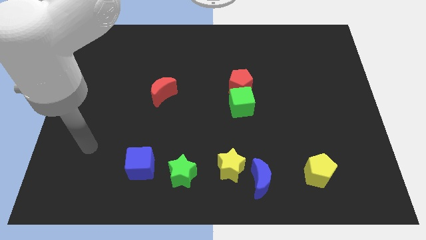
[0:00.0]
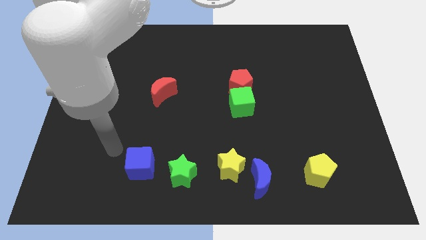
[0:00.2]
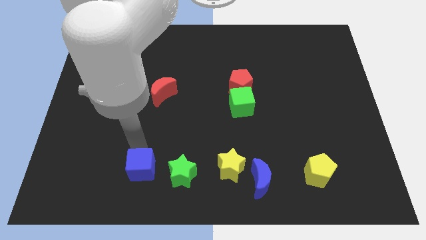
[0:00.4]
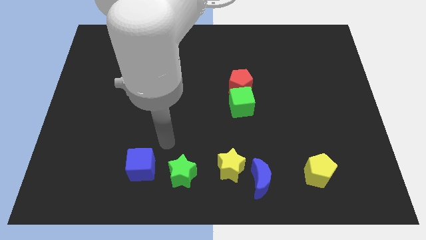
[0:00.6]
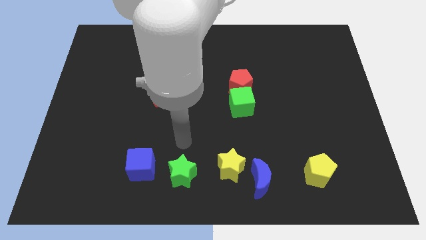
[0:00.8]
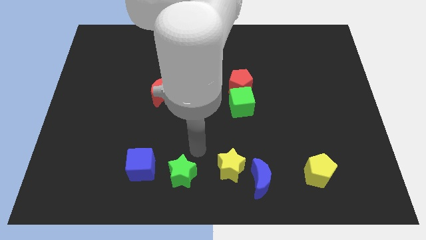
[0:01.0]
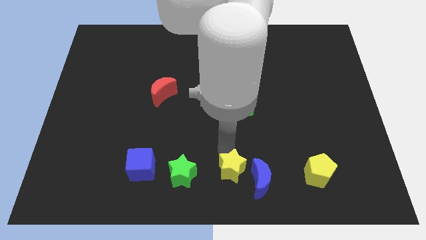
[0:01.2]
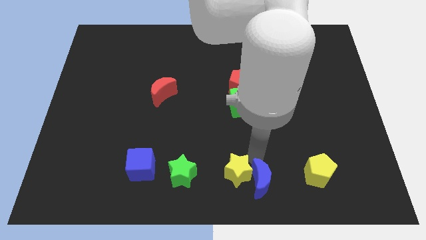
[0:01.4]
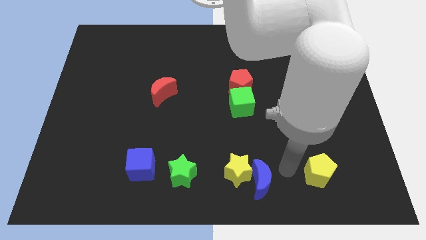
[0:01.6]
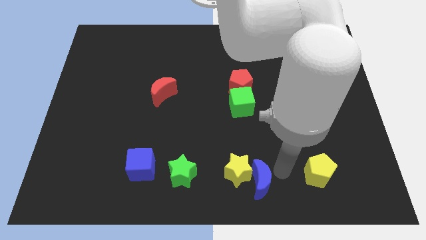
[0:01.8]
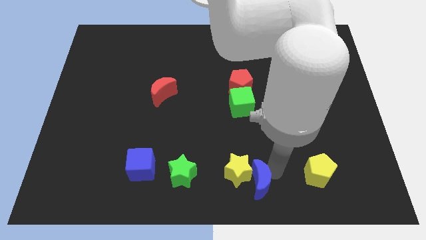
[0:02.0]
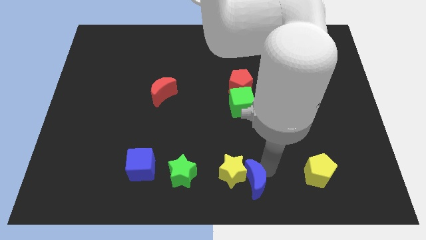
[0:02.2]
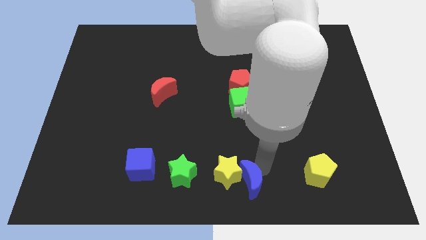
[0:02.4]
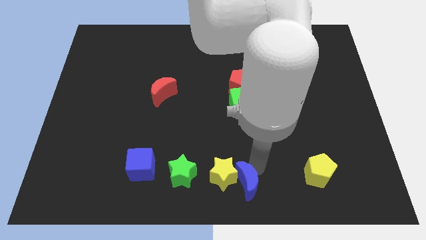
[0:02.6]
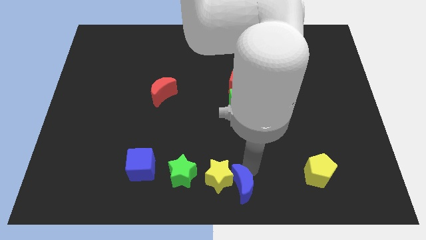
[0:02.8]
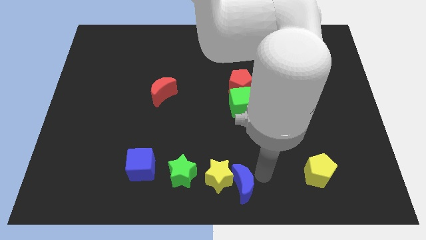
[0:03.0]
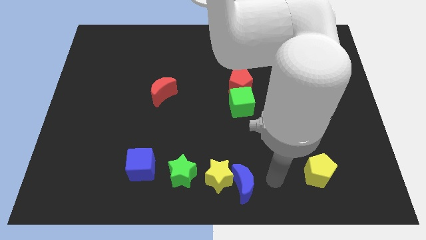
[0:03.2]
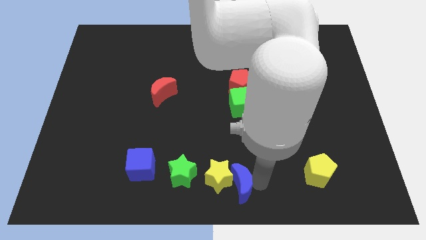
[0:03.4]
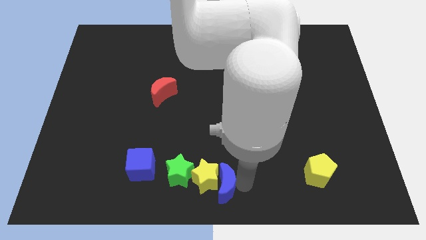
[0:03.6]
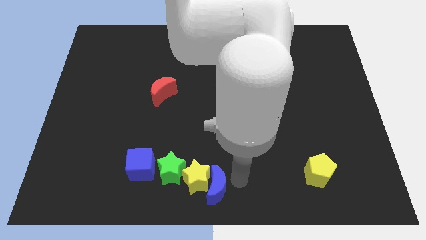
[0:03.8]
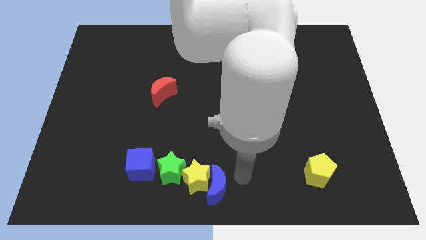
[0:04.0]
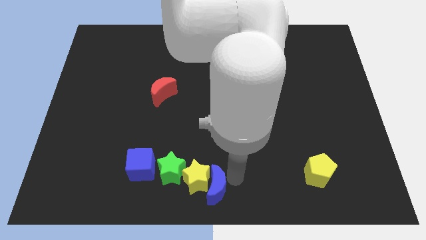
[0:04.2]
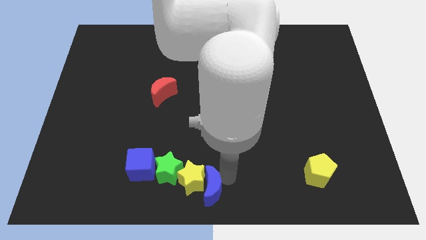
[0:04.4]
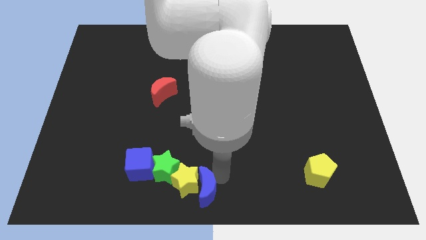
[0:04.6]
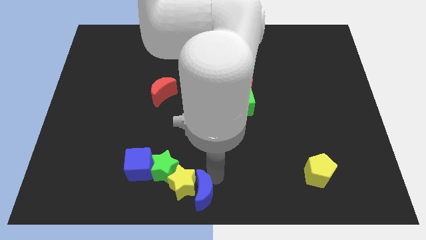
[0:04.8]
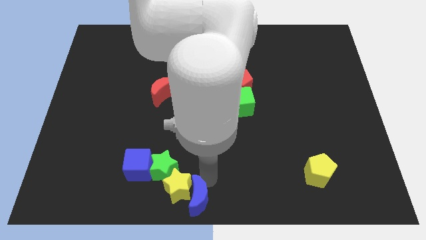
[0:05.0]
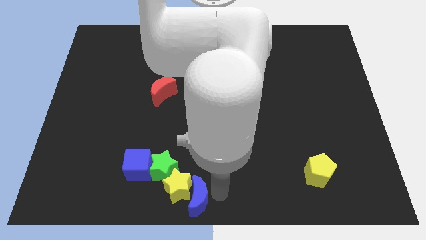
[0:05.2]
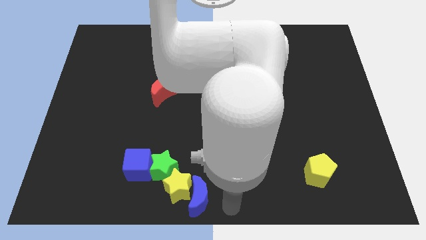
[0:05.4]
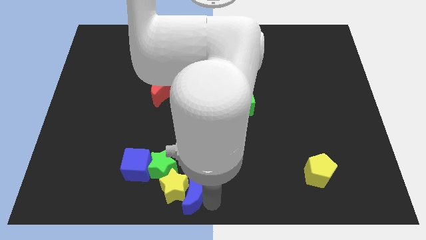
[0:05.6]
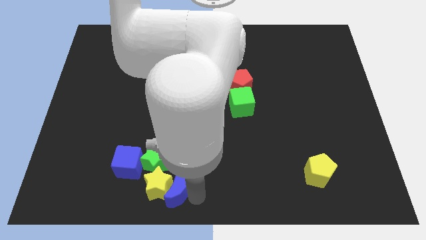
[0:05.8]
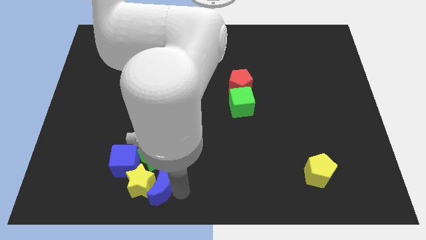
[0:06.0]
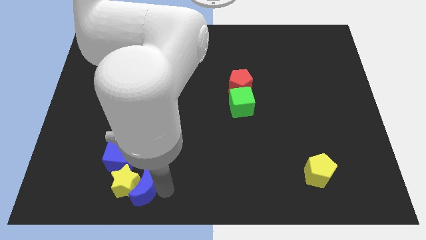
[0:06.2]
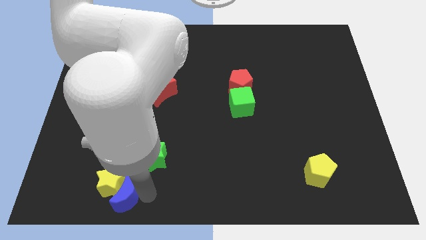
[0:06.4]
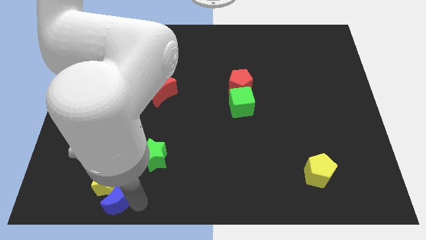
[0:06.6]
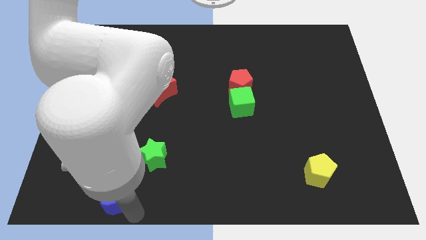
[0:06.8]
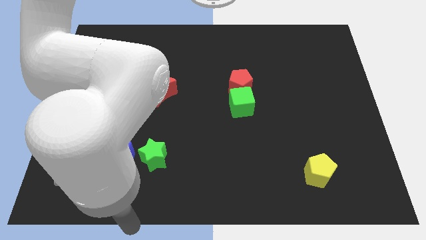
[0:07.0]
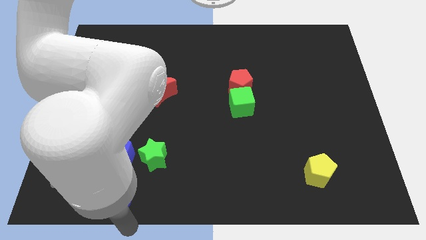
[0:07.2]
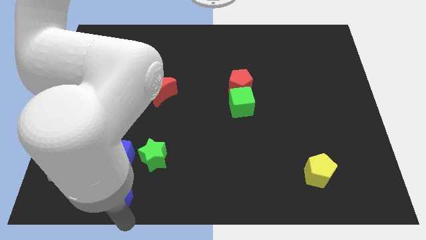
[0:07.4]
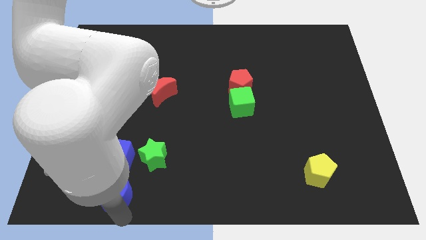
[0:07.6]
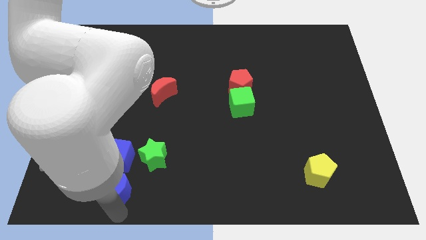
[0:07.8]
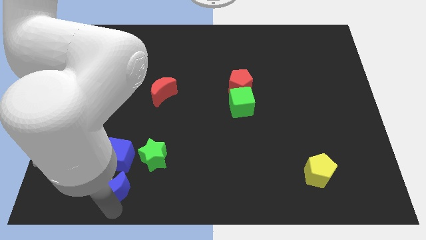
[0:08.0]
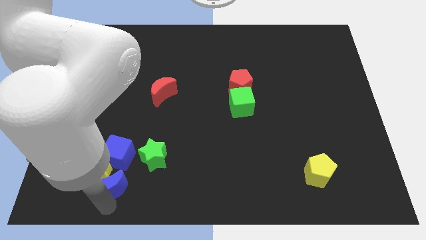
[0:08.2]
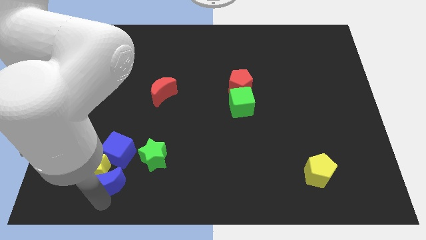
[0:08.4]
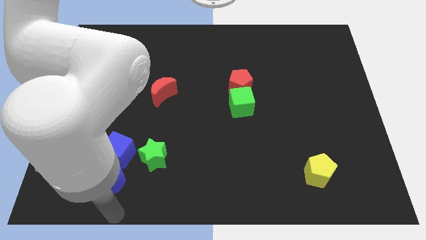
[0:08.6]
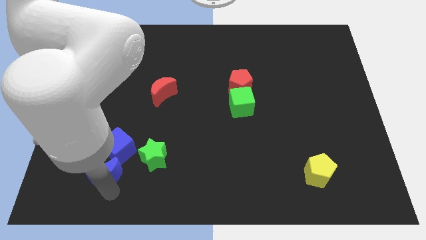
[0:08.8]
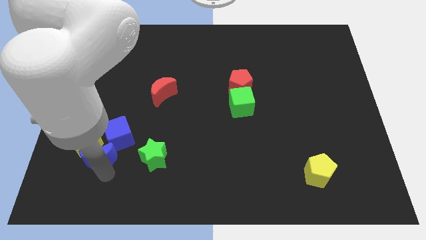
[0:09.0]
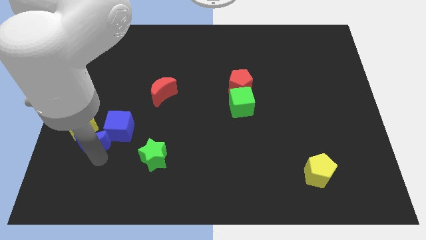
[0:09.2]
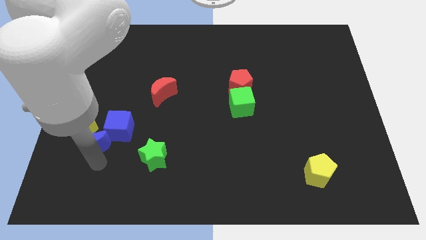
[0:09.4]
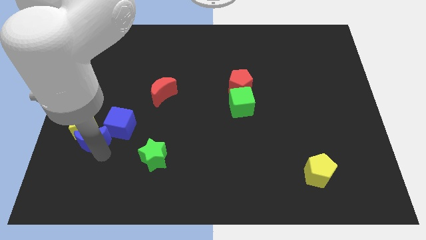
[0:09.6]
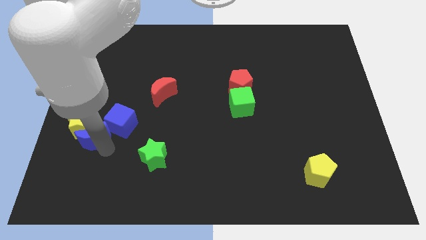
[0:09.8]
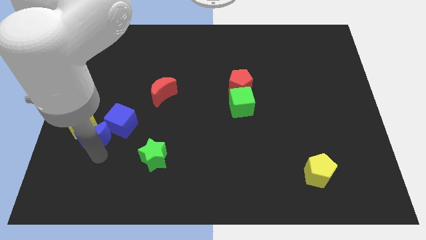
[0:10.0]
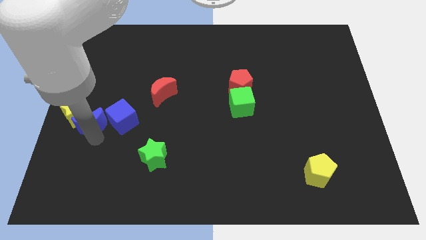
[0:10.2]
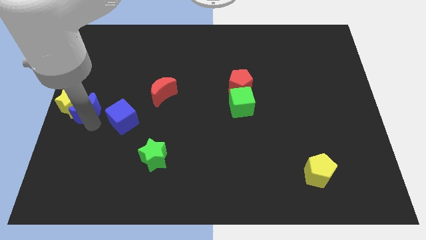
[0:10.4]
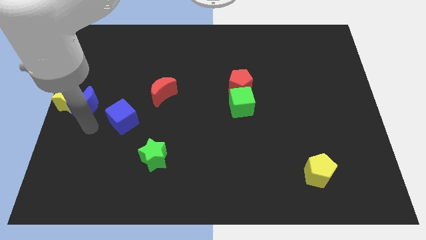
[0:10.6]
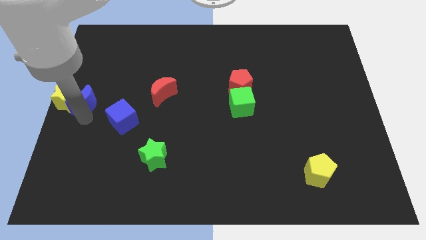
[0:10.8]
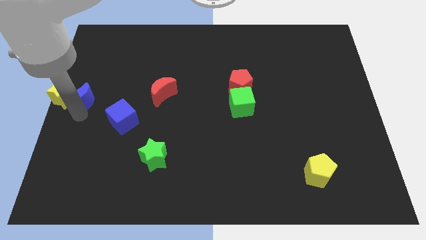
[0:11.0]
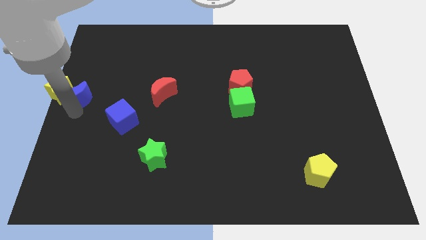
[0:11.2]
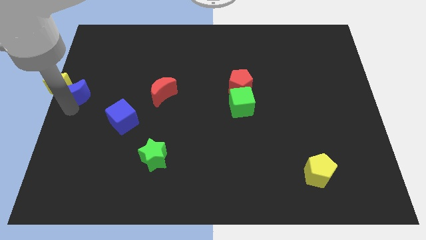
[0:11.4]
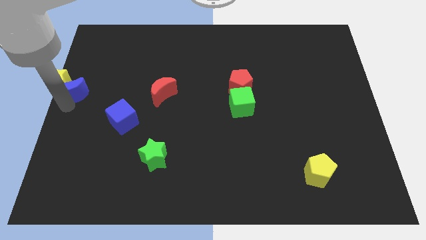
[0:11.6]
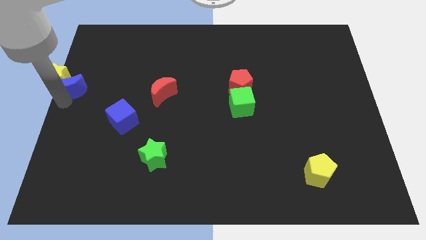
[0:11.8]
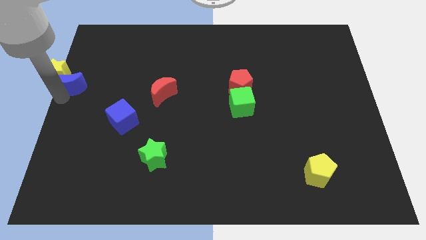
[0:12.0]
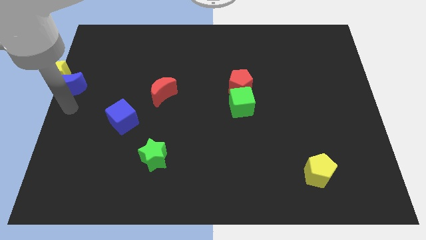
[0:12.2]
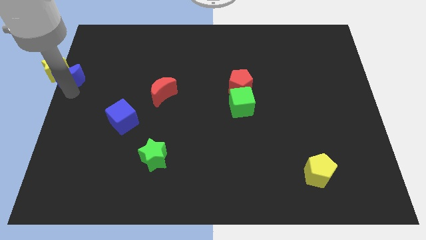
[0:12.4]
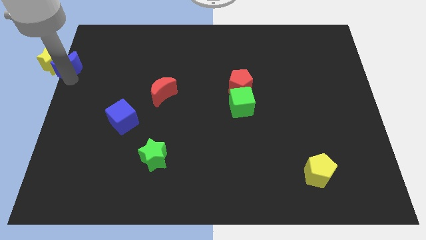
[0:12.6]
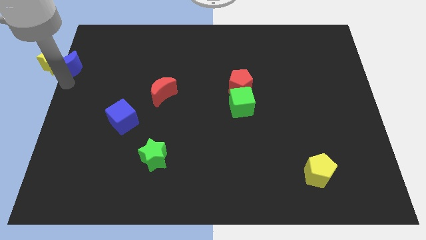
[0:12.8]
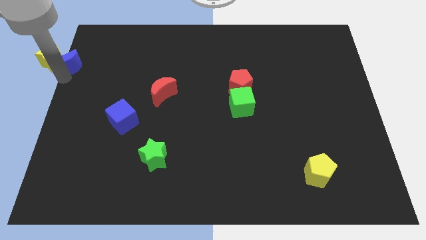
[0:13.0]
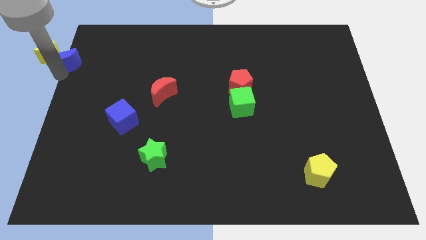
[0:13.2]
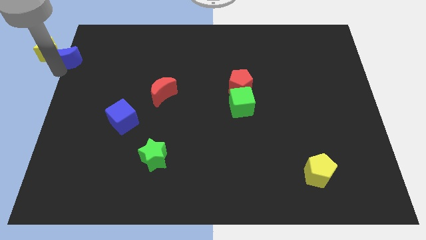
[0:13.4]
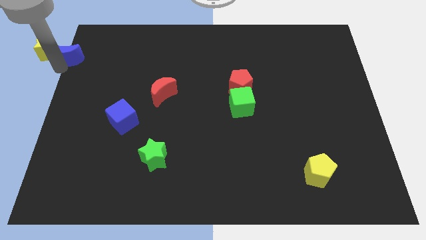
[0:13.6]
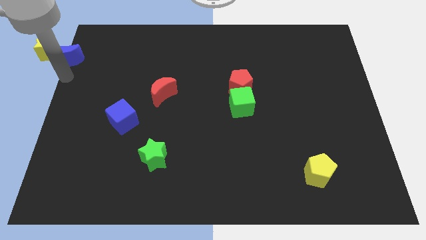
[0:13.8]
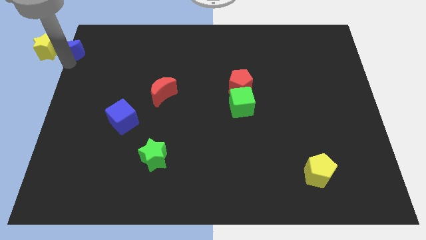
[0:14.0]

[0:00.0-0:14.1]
push the blue moon to the top left corner
